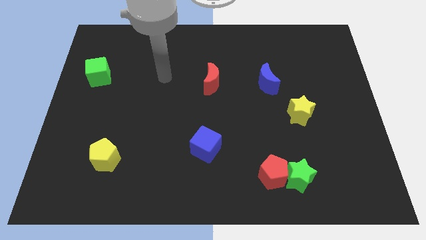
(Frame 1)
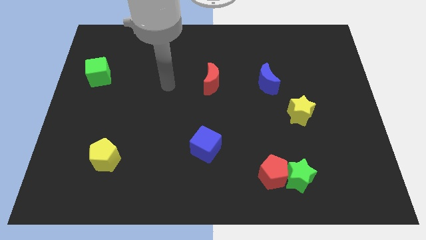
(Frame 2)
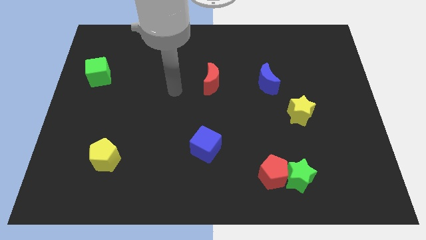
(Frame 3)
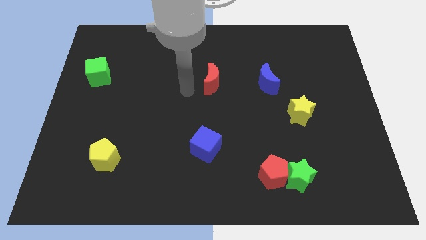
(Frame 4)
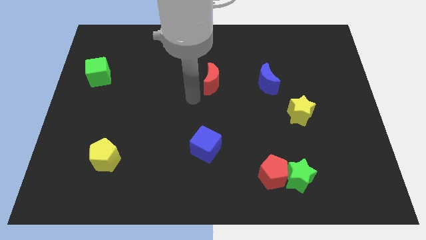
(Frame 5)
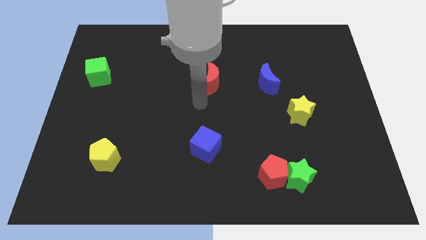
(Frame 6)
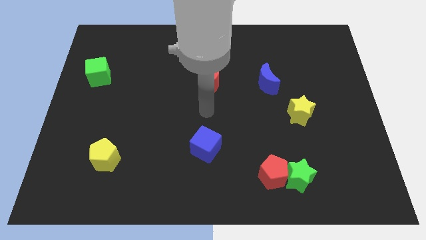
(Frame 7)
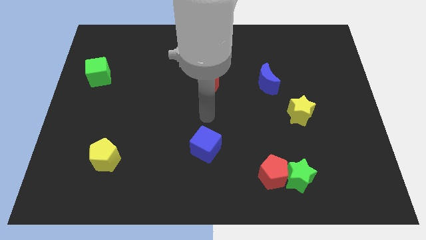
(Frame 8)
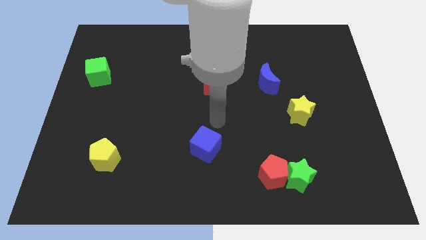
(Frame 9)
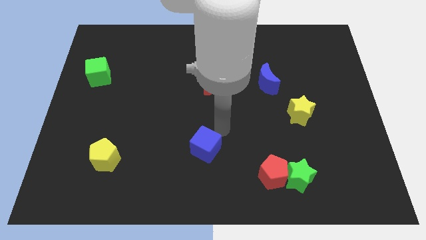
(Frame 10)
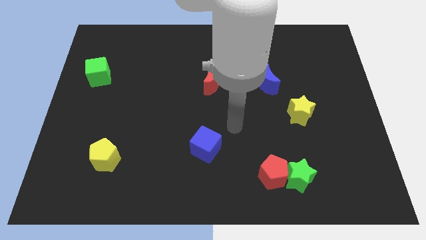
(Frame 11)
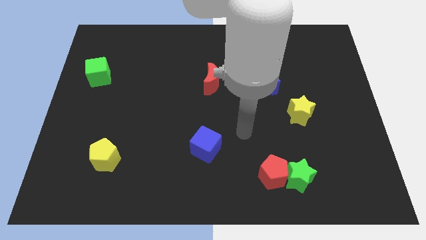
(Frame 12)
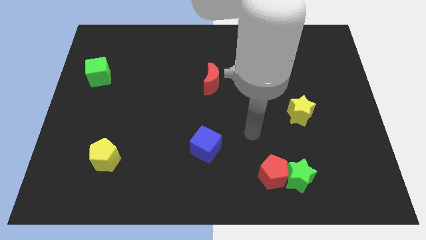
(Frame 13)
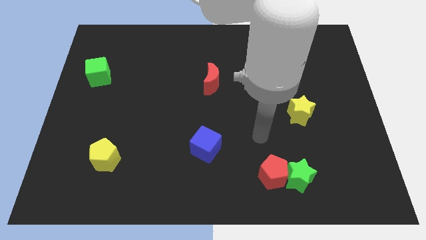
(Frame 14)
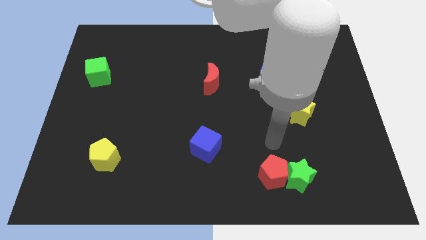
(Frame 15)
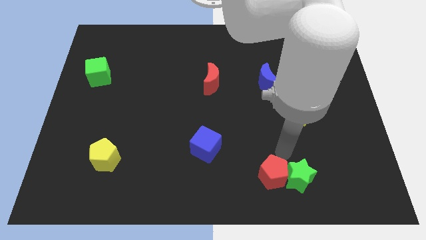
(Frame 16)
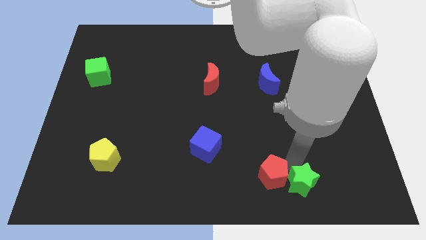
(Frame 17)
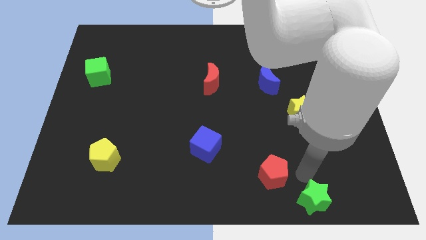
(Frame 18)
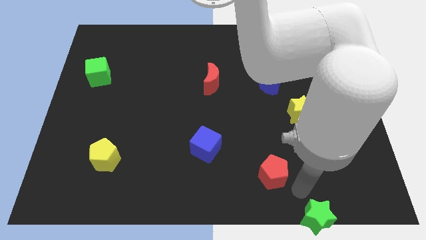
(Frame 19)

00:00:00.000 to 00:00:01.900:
pull the red pentagon apart from the green star

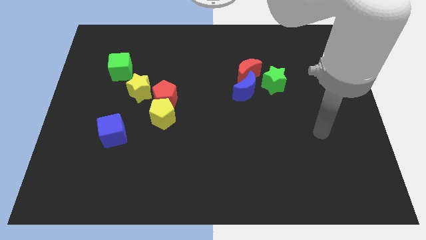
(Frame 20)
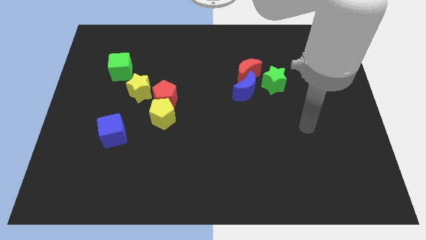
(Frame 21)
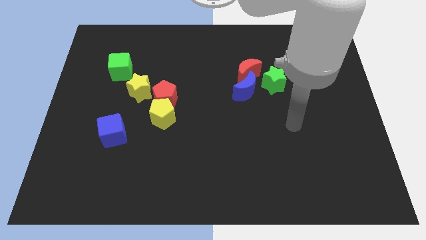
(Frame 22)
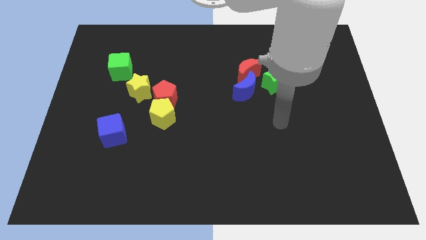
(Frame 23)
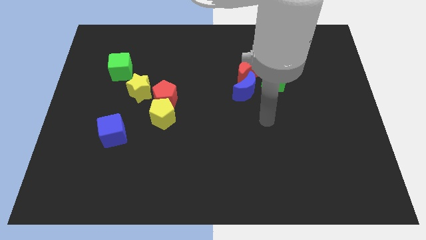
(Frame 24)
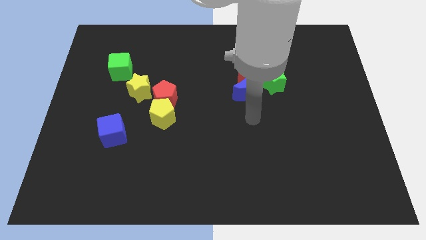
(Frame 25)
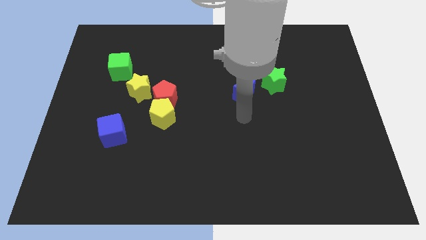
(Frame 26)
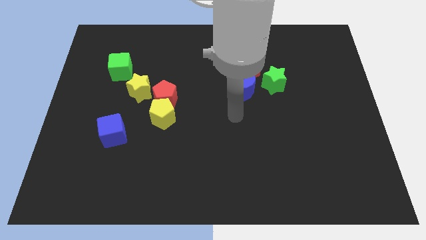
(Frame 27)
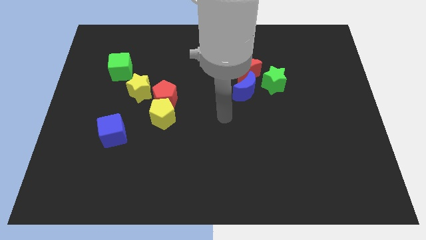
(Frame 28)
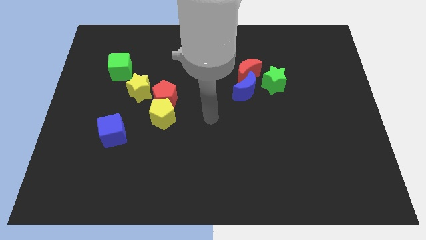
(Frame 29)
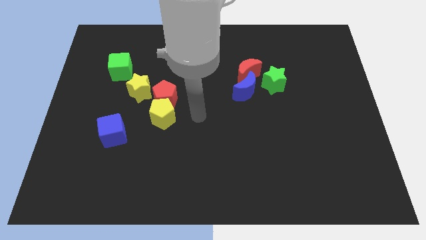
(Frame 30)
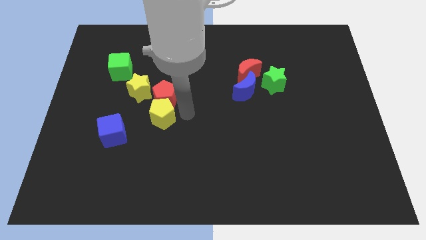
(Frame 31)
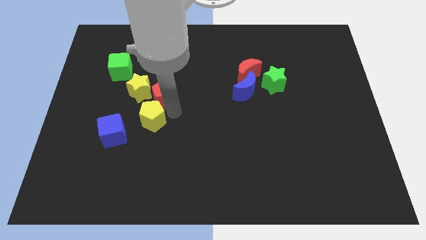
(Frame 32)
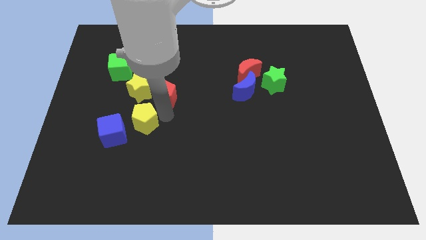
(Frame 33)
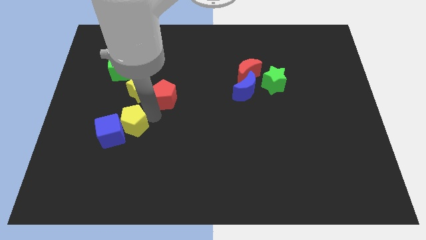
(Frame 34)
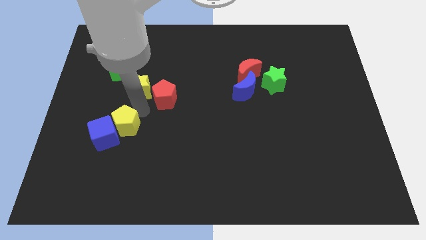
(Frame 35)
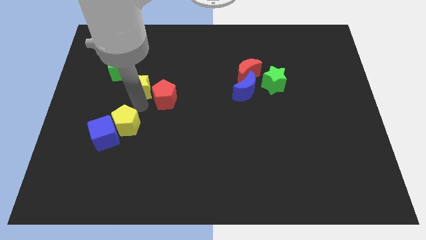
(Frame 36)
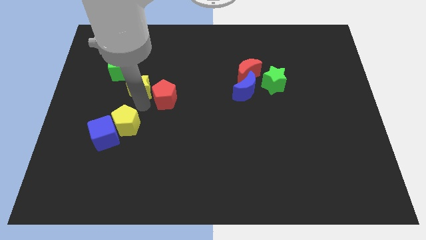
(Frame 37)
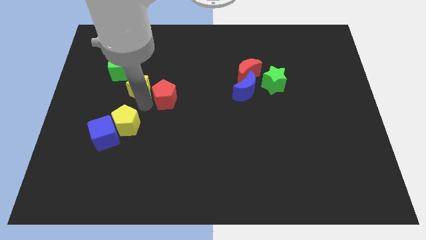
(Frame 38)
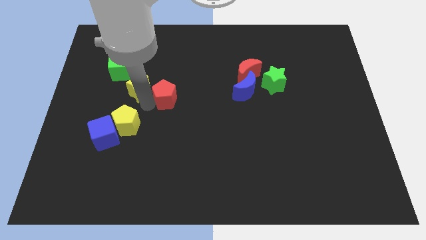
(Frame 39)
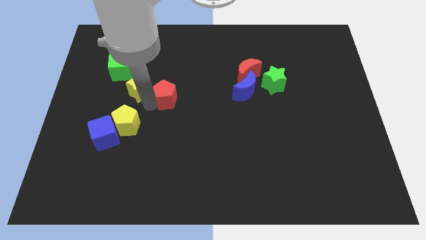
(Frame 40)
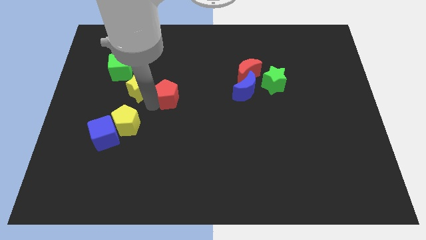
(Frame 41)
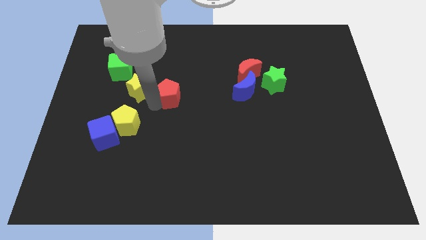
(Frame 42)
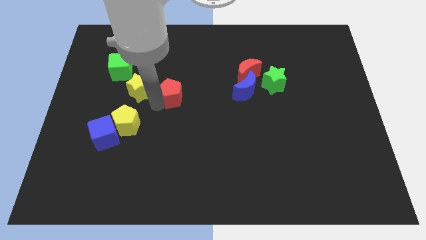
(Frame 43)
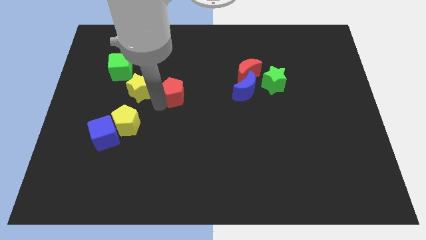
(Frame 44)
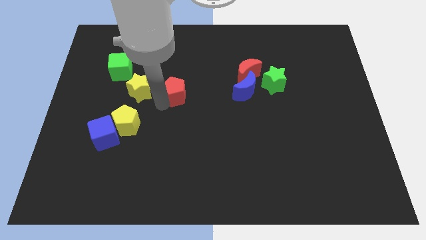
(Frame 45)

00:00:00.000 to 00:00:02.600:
pull the red pentagon apart from the yellow pentagon and yellow star

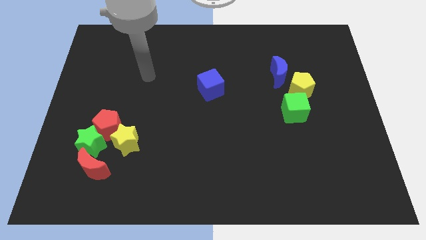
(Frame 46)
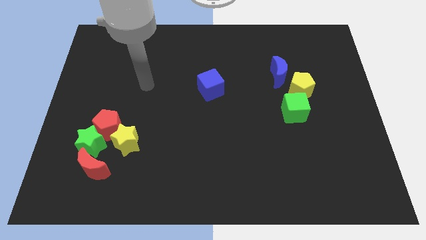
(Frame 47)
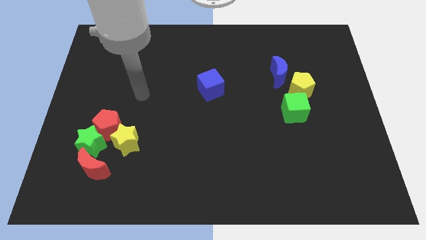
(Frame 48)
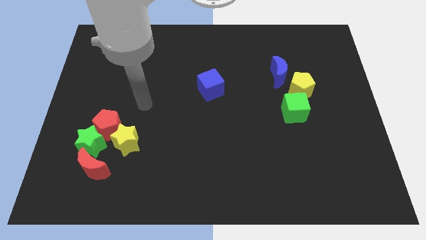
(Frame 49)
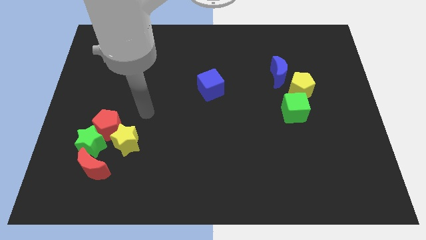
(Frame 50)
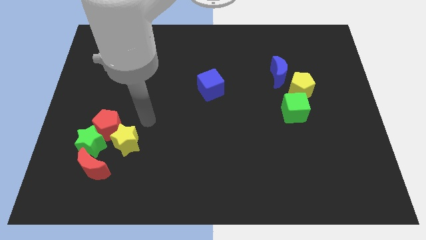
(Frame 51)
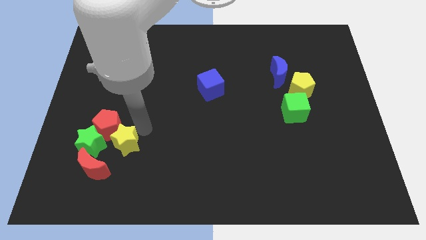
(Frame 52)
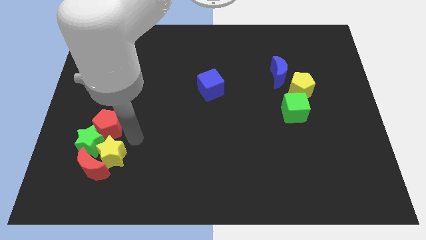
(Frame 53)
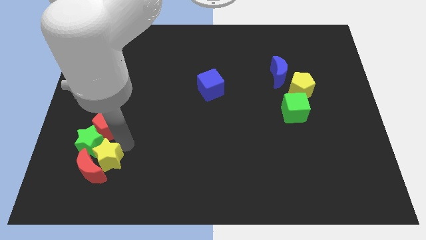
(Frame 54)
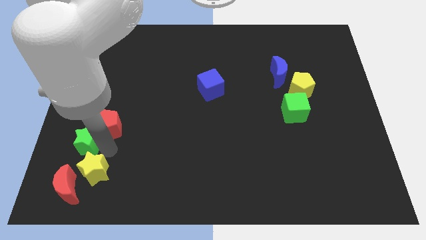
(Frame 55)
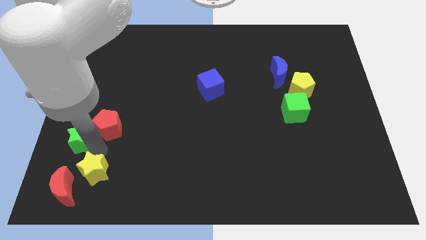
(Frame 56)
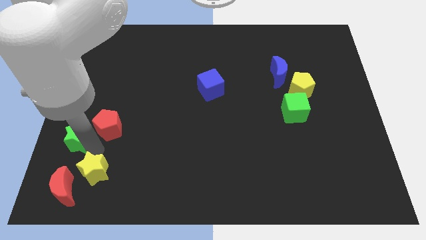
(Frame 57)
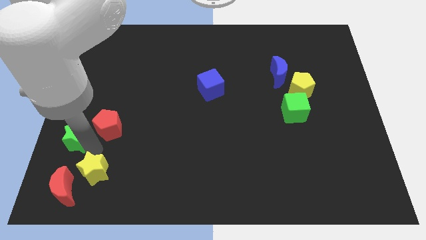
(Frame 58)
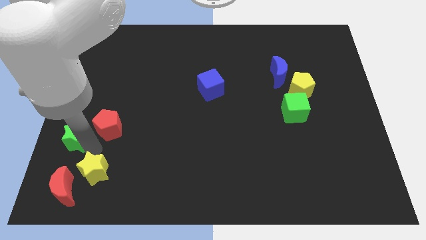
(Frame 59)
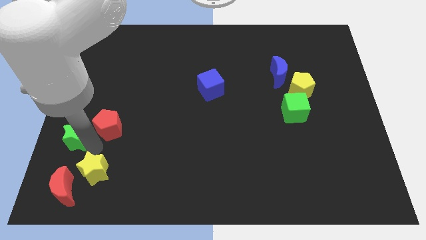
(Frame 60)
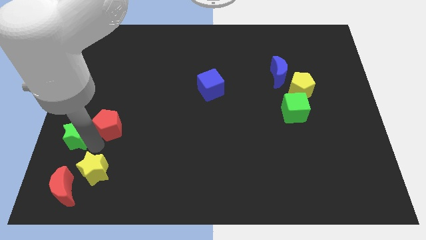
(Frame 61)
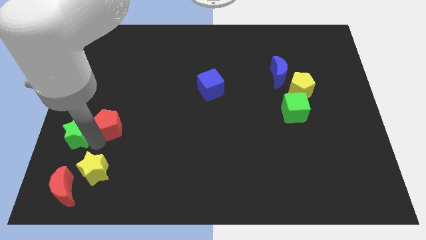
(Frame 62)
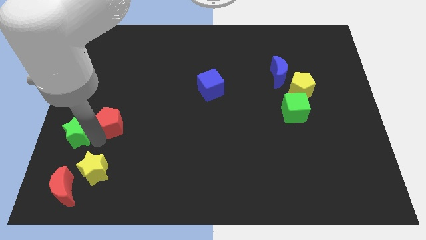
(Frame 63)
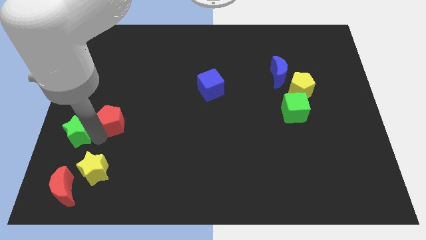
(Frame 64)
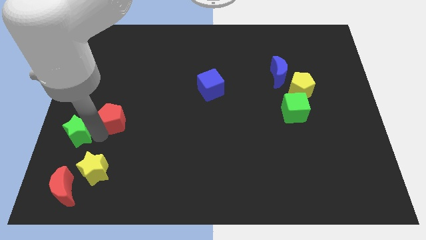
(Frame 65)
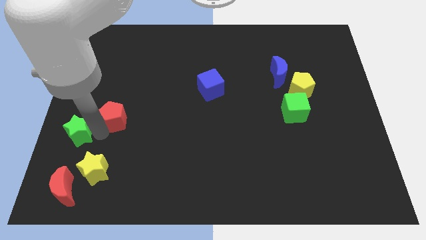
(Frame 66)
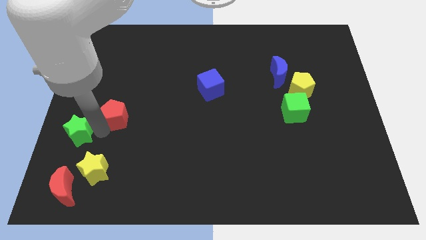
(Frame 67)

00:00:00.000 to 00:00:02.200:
pull the red pentagon apart from the green star and yellow star

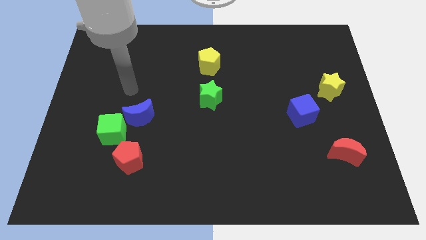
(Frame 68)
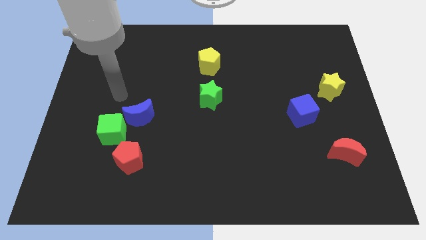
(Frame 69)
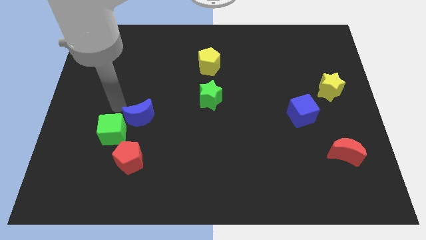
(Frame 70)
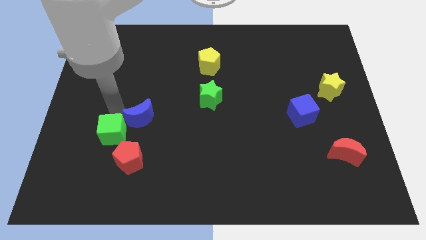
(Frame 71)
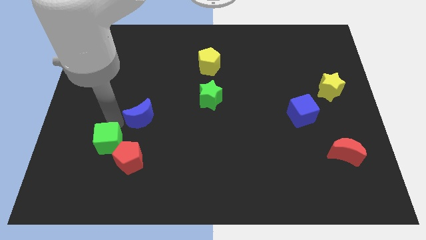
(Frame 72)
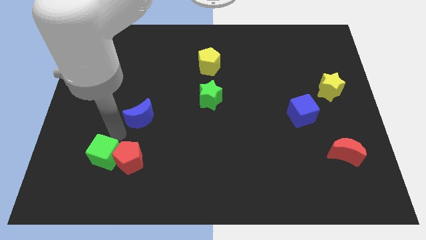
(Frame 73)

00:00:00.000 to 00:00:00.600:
separate the blue moon from the green cube

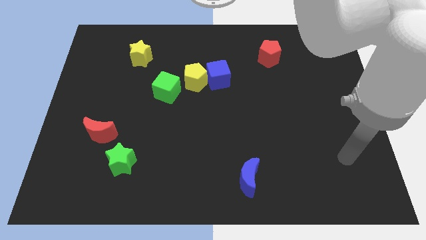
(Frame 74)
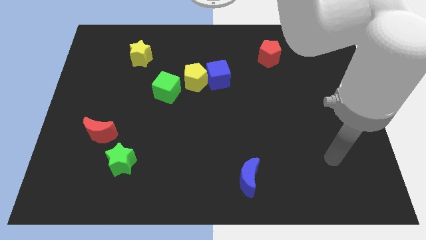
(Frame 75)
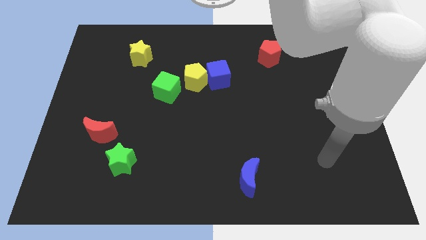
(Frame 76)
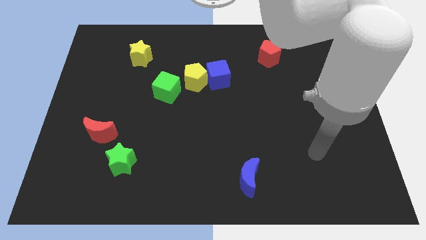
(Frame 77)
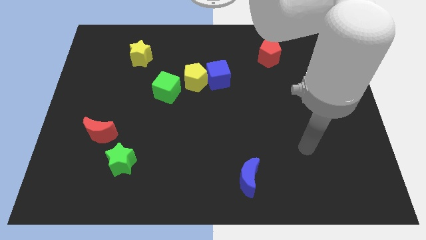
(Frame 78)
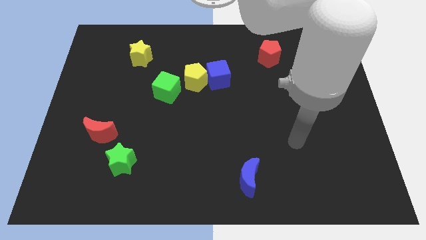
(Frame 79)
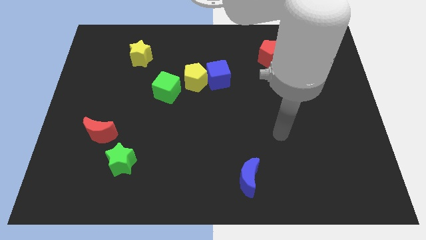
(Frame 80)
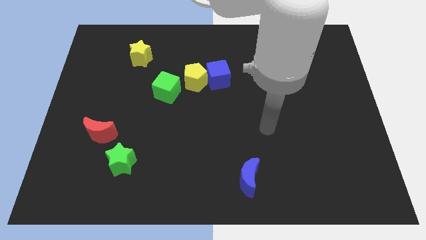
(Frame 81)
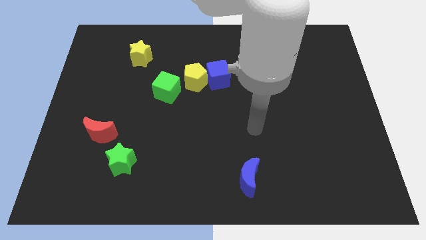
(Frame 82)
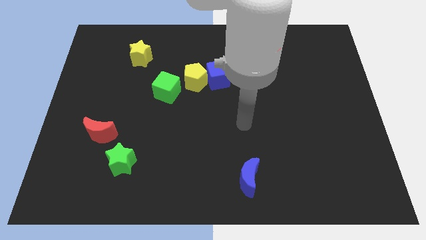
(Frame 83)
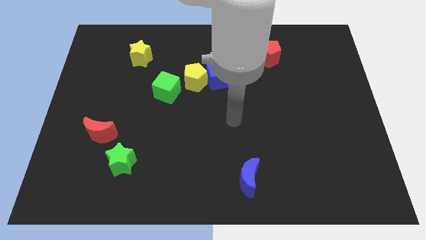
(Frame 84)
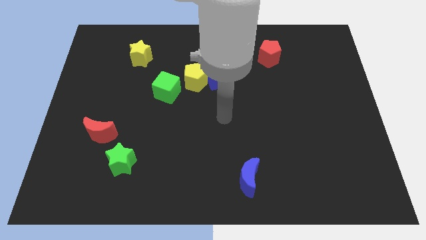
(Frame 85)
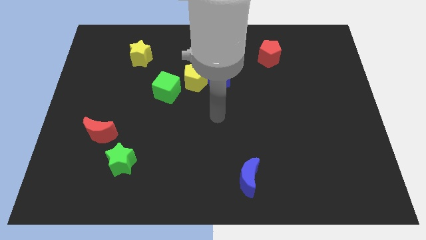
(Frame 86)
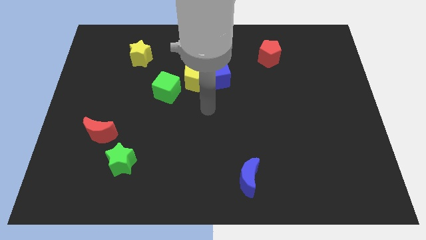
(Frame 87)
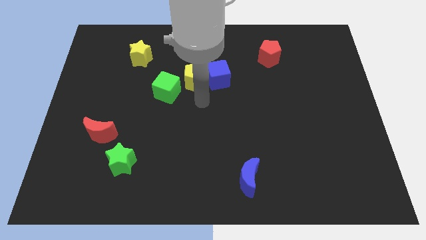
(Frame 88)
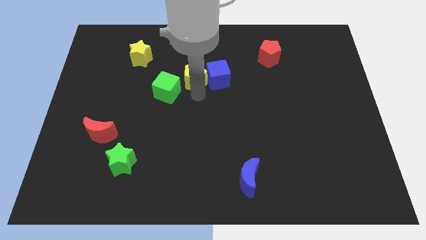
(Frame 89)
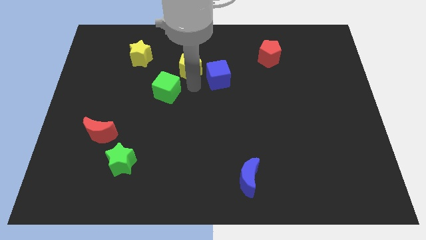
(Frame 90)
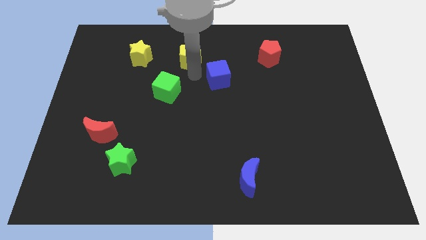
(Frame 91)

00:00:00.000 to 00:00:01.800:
pull the blue cube apart from the yellow pentagon

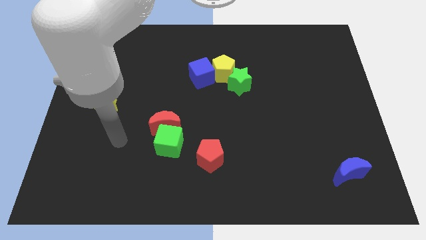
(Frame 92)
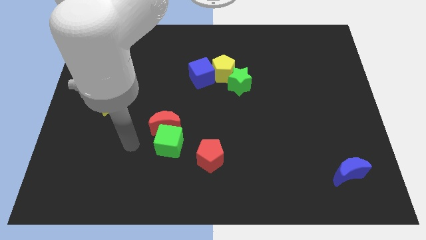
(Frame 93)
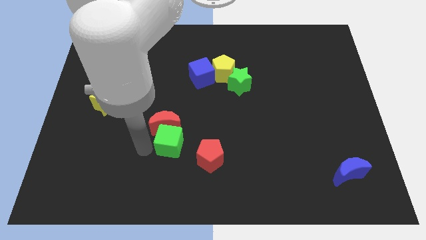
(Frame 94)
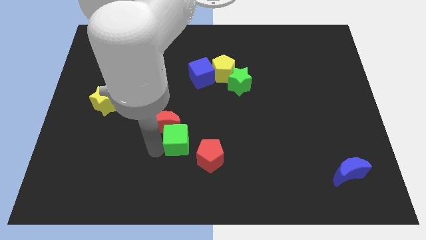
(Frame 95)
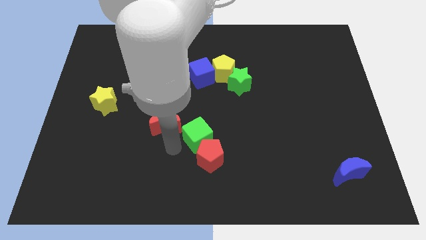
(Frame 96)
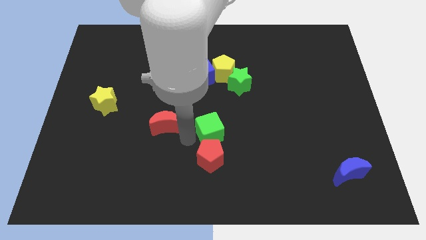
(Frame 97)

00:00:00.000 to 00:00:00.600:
move the red moon away from the green cube
